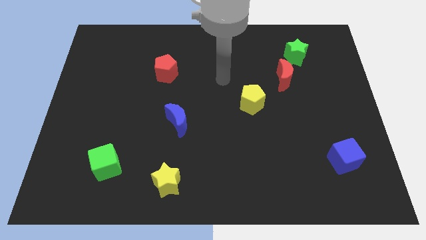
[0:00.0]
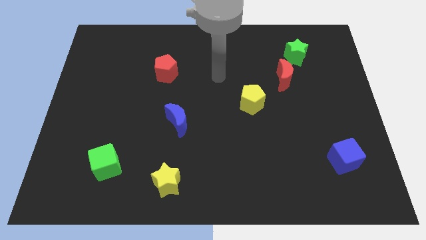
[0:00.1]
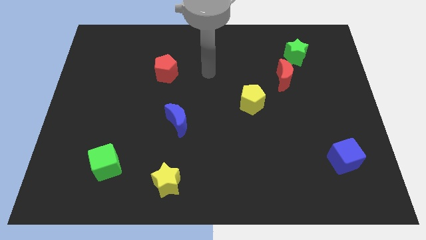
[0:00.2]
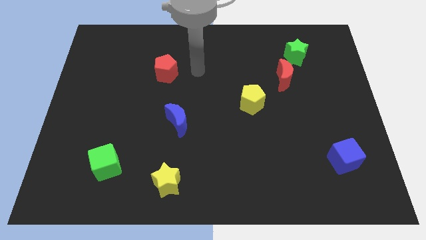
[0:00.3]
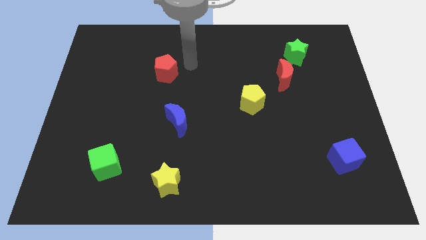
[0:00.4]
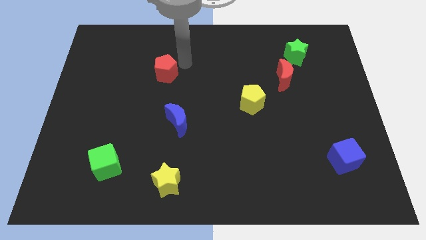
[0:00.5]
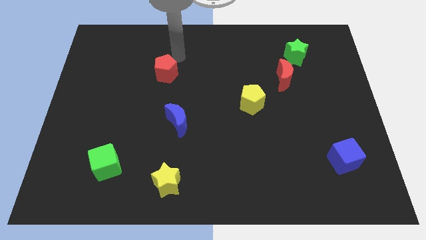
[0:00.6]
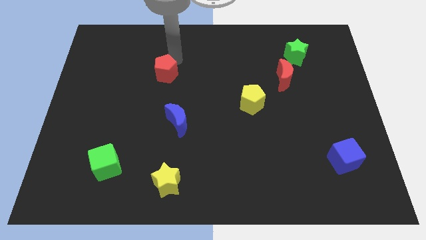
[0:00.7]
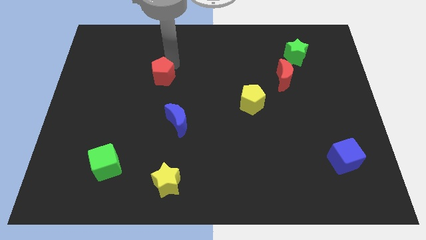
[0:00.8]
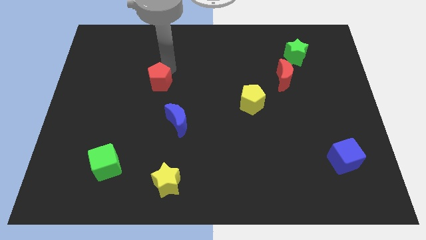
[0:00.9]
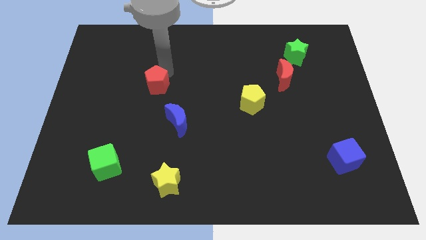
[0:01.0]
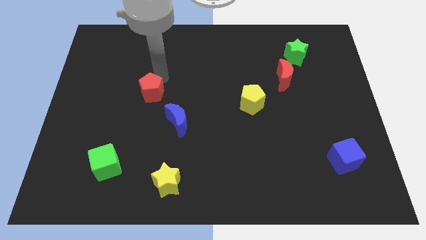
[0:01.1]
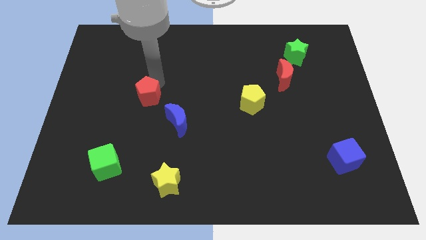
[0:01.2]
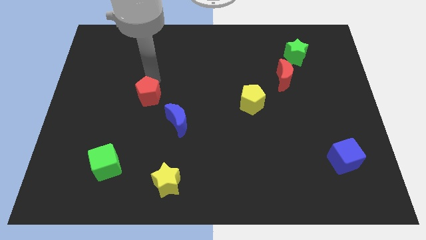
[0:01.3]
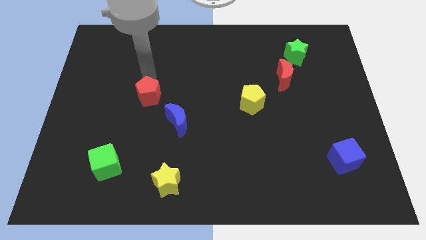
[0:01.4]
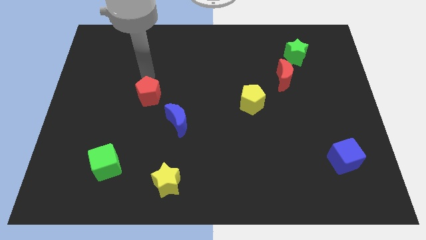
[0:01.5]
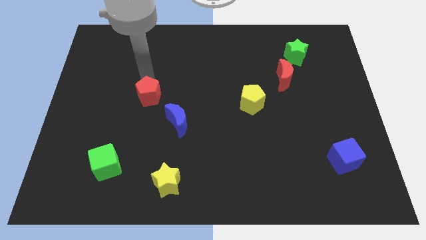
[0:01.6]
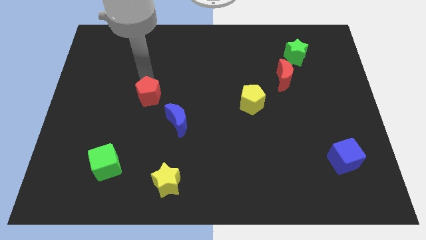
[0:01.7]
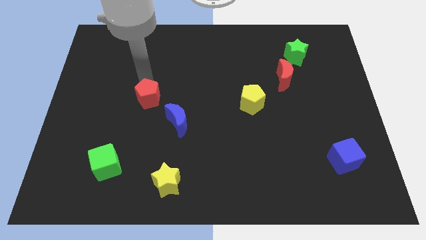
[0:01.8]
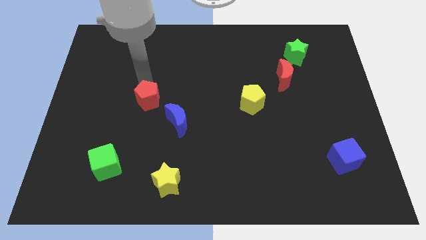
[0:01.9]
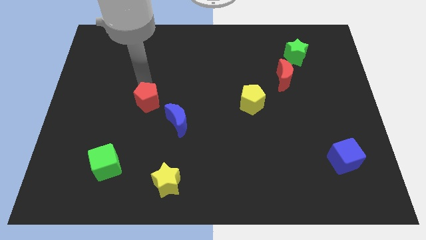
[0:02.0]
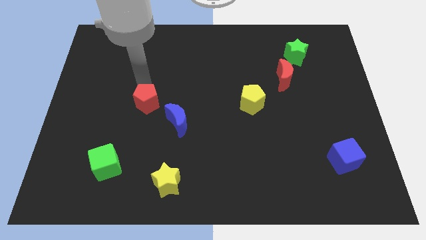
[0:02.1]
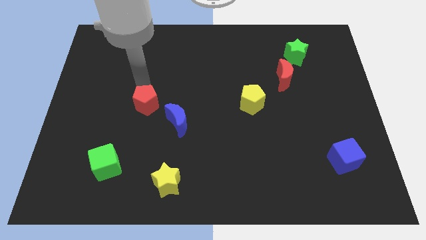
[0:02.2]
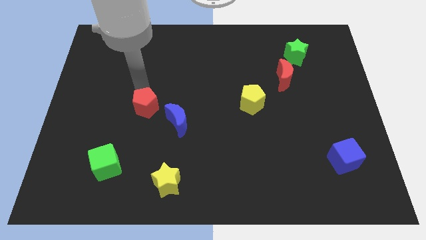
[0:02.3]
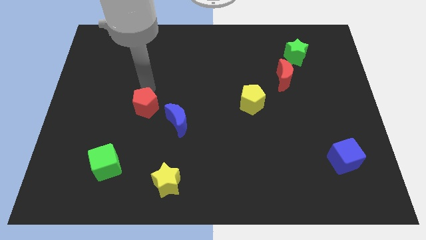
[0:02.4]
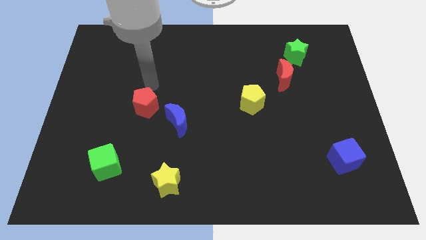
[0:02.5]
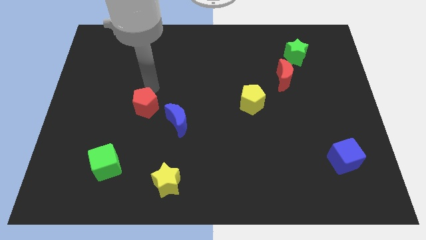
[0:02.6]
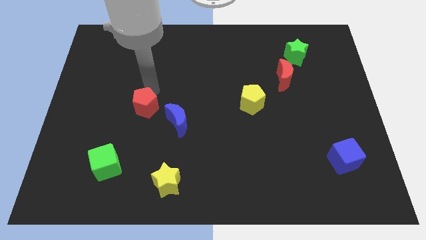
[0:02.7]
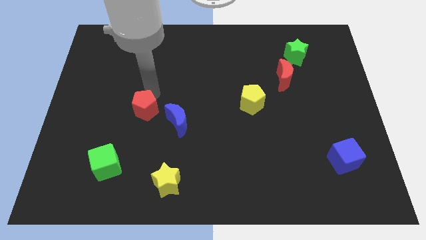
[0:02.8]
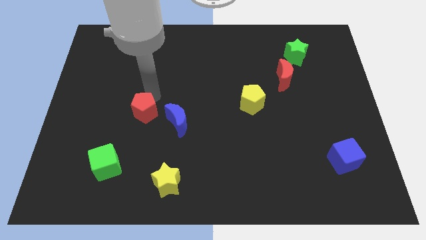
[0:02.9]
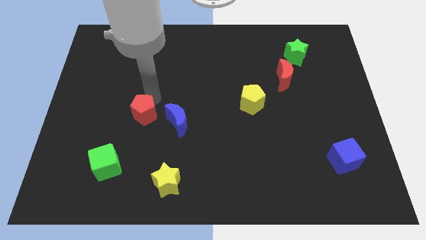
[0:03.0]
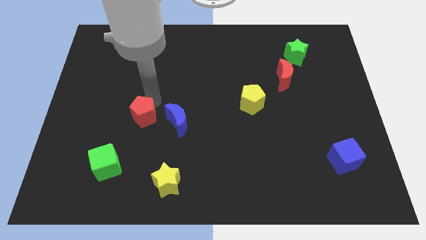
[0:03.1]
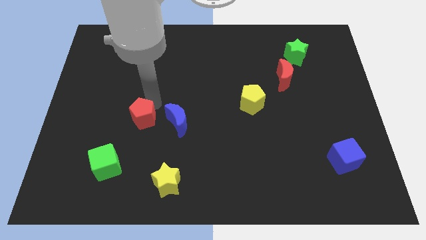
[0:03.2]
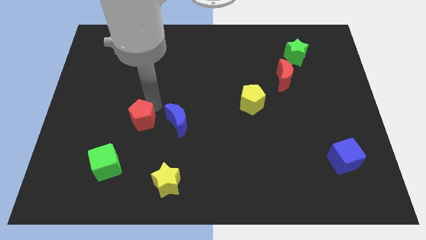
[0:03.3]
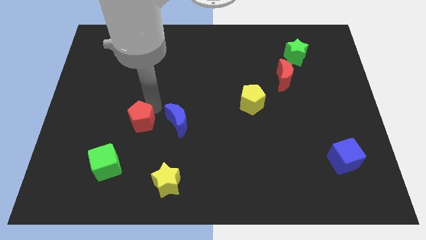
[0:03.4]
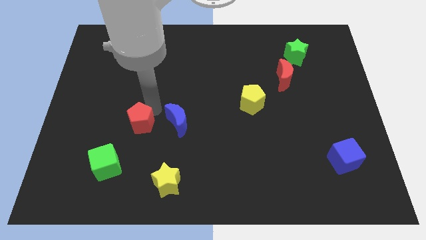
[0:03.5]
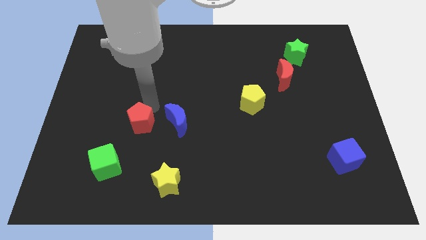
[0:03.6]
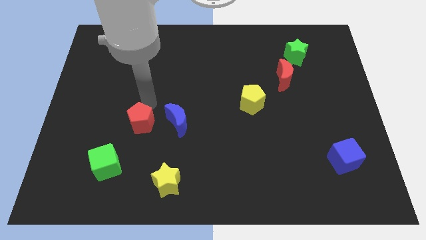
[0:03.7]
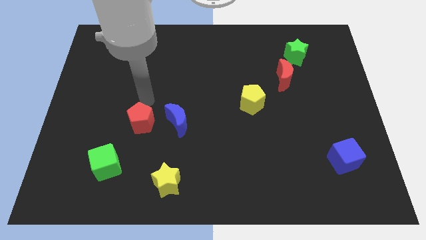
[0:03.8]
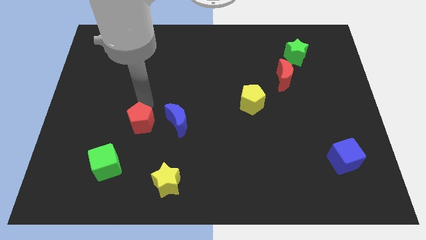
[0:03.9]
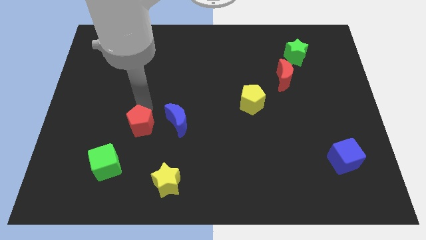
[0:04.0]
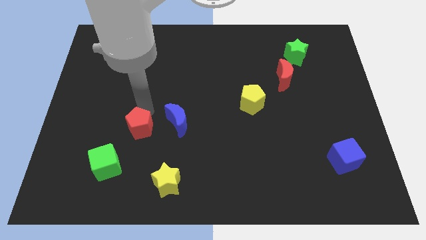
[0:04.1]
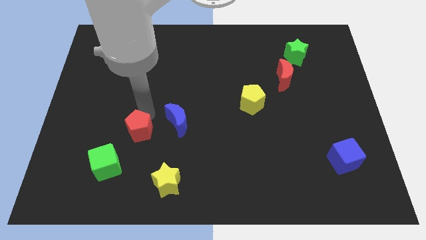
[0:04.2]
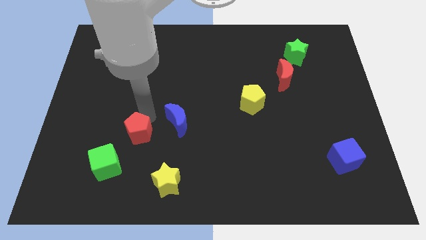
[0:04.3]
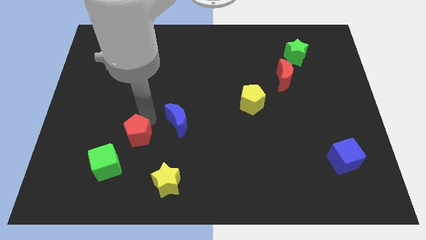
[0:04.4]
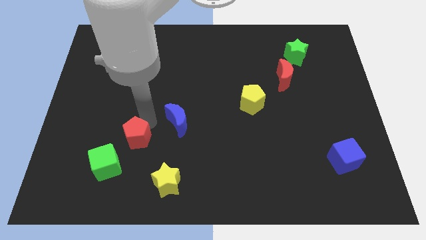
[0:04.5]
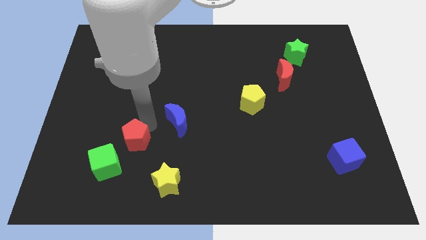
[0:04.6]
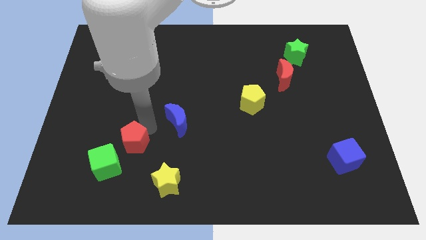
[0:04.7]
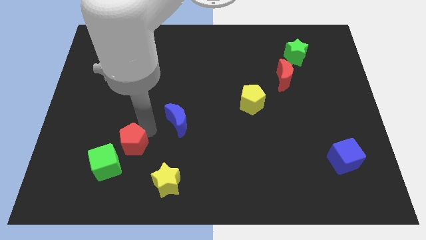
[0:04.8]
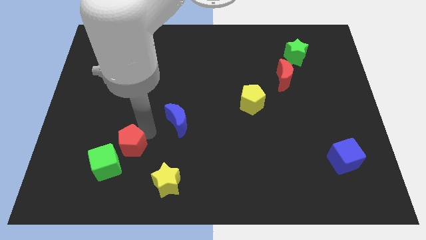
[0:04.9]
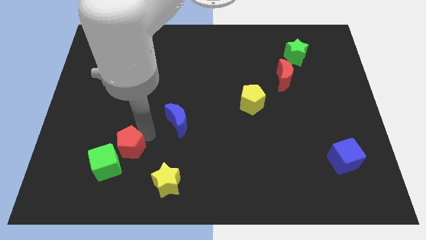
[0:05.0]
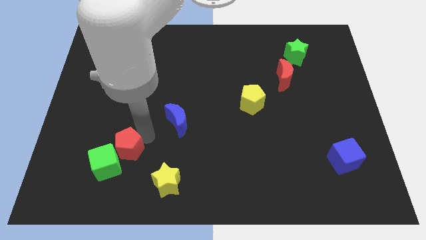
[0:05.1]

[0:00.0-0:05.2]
slide the red pentagon towards the green cube

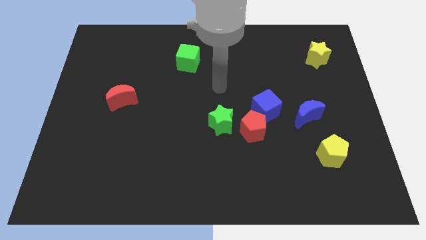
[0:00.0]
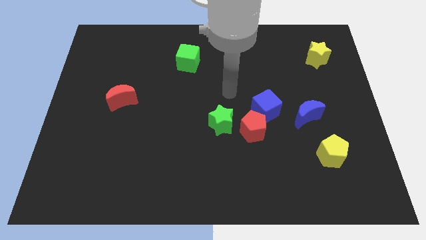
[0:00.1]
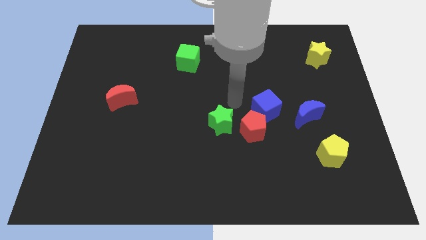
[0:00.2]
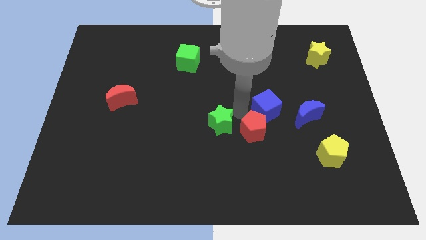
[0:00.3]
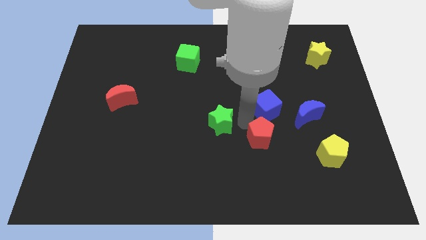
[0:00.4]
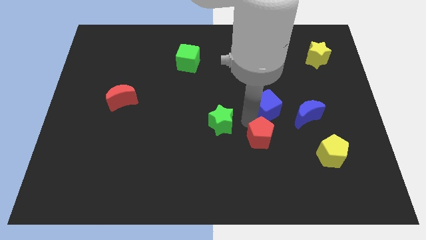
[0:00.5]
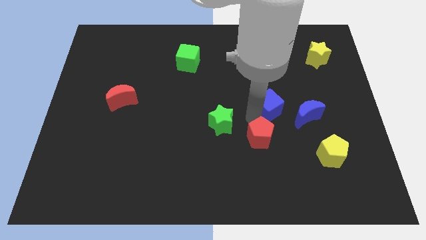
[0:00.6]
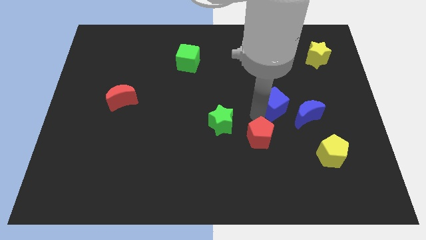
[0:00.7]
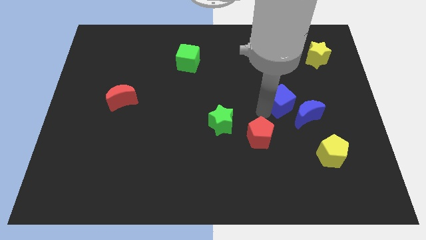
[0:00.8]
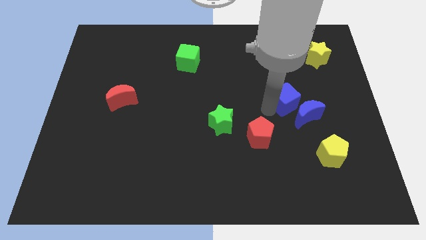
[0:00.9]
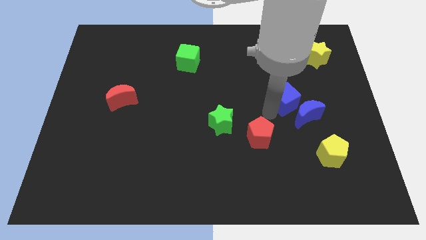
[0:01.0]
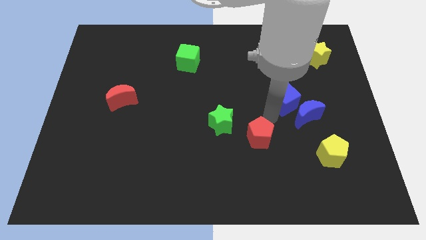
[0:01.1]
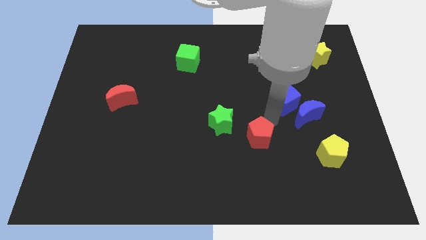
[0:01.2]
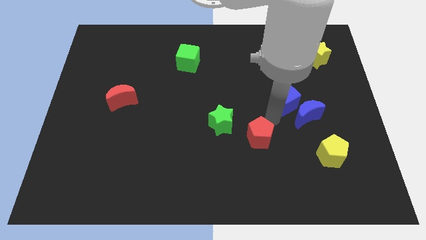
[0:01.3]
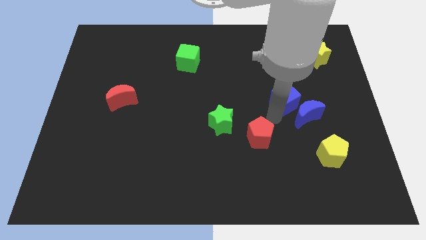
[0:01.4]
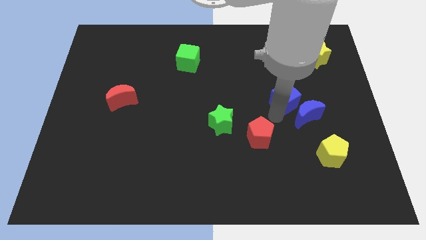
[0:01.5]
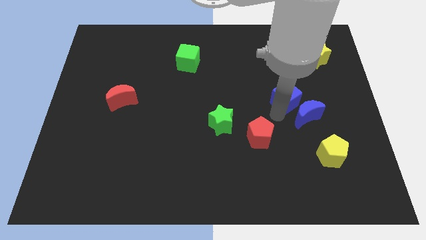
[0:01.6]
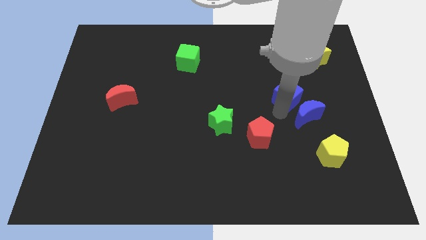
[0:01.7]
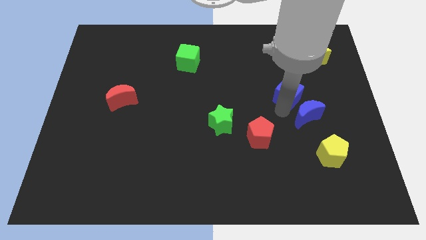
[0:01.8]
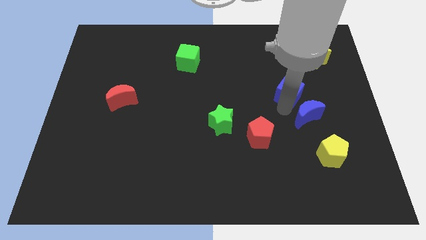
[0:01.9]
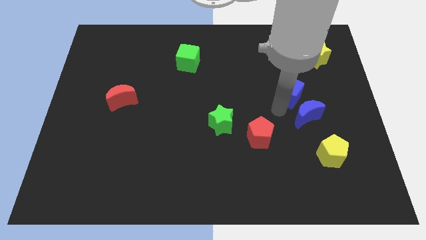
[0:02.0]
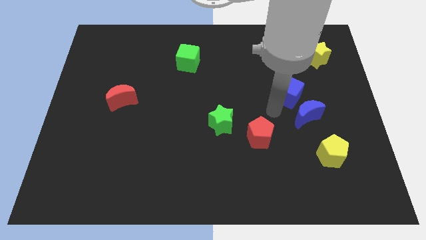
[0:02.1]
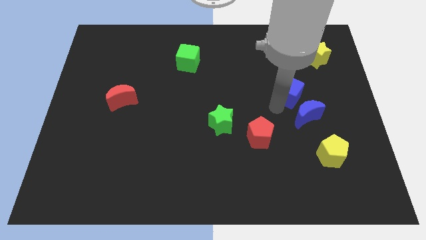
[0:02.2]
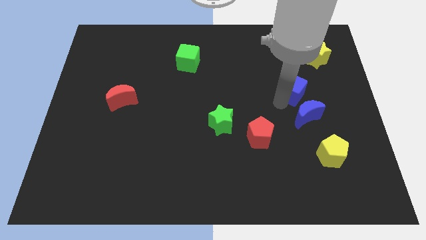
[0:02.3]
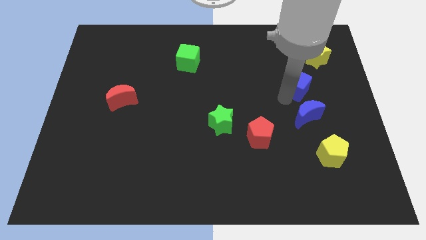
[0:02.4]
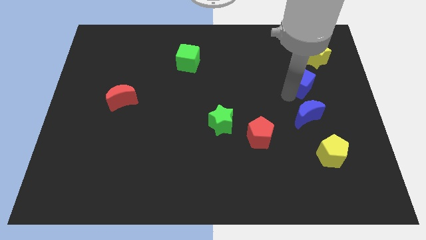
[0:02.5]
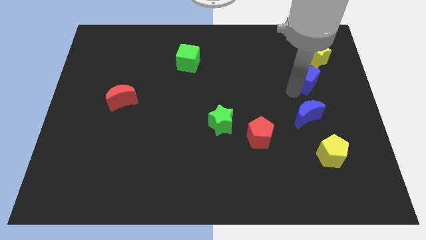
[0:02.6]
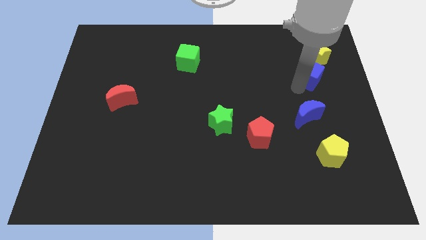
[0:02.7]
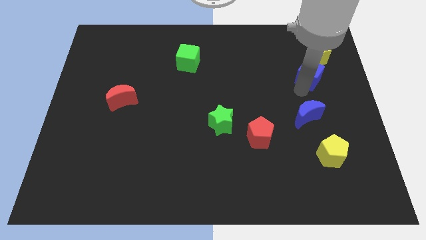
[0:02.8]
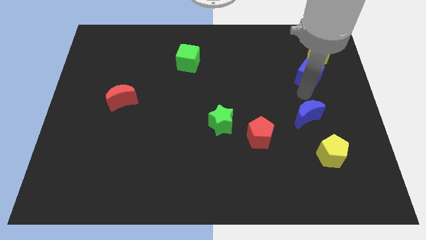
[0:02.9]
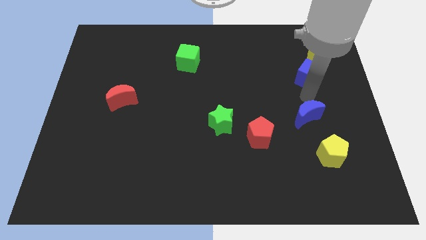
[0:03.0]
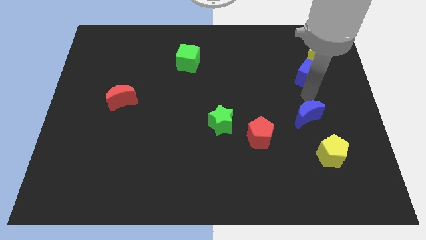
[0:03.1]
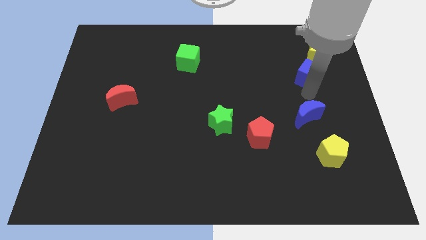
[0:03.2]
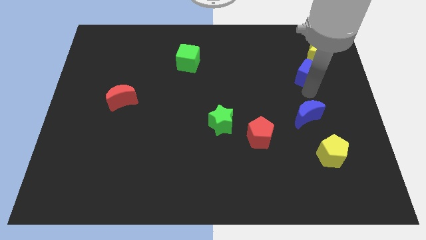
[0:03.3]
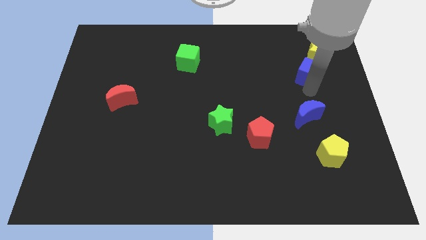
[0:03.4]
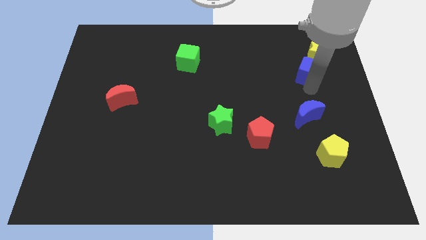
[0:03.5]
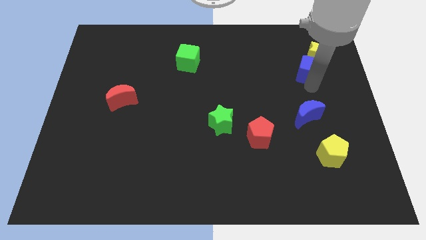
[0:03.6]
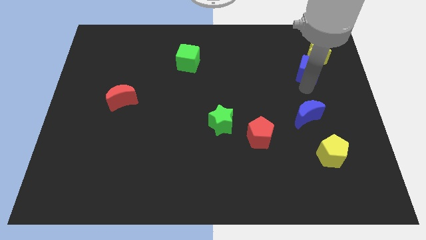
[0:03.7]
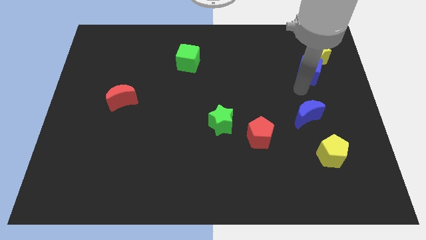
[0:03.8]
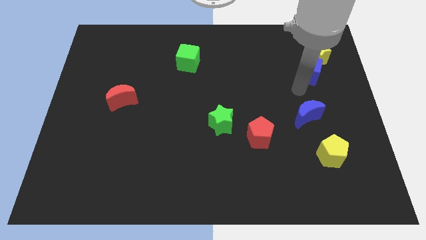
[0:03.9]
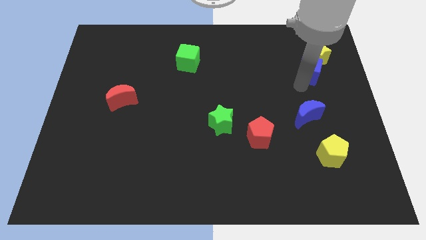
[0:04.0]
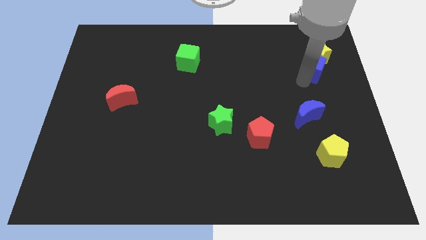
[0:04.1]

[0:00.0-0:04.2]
put the blue cube close to the yellow star
